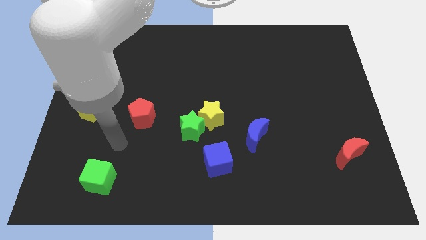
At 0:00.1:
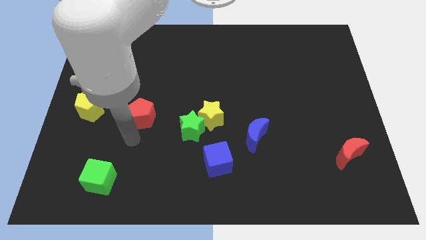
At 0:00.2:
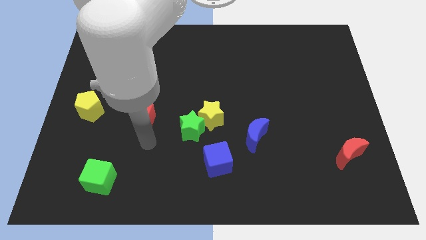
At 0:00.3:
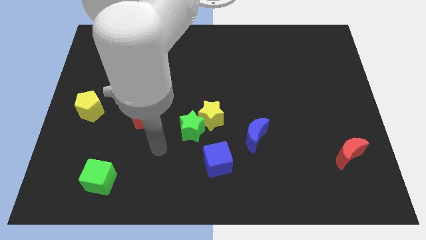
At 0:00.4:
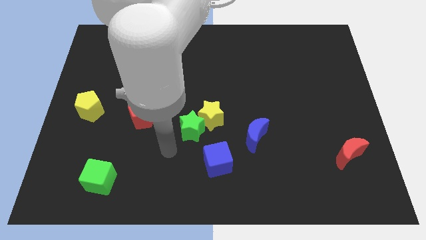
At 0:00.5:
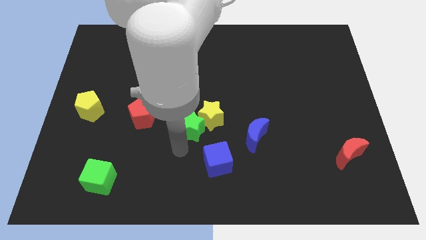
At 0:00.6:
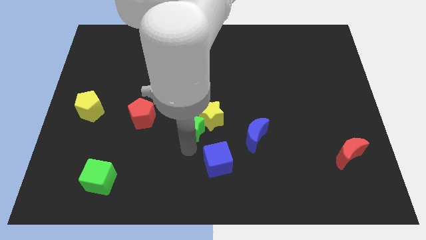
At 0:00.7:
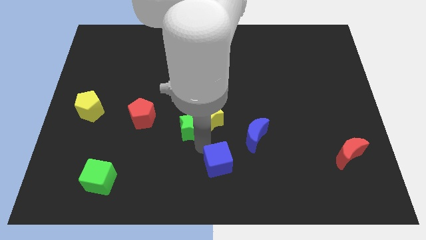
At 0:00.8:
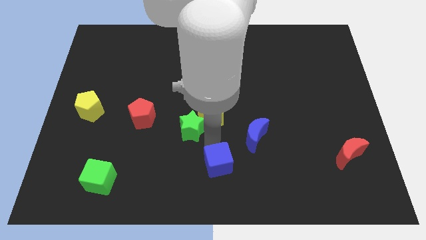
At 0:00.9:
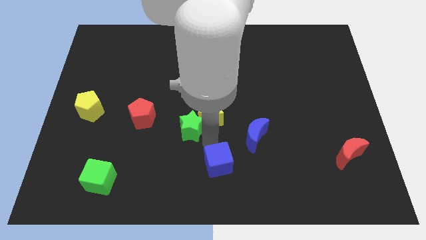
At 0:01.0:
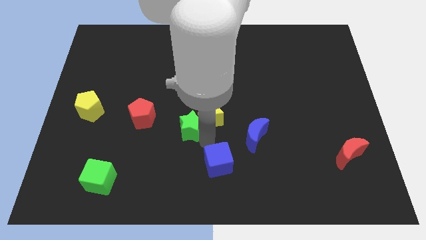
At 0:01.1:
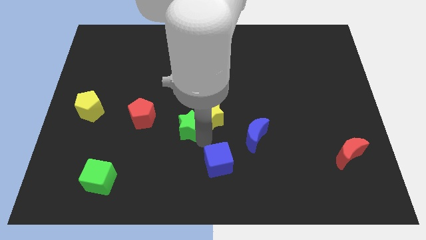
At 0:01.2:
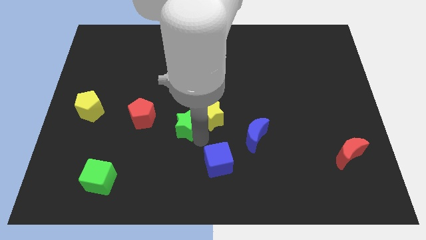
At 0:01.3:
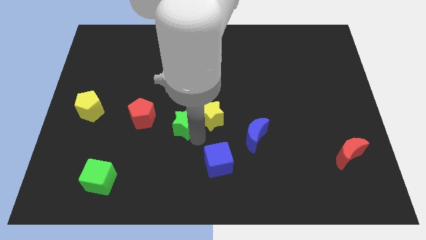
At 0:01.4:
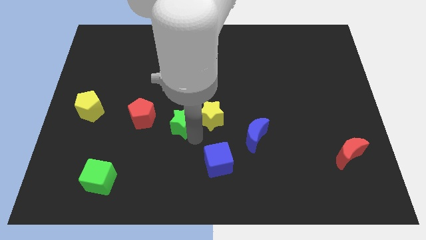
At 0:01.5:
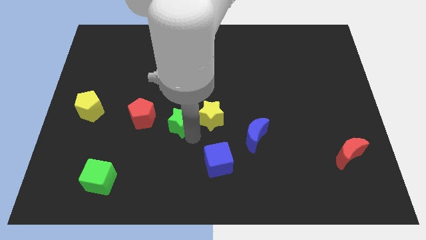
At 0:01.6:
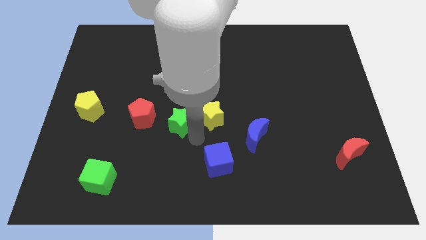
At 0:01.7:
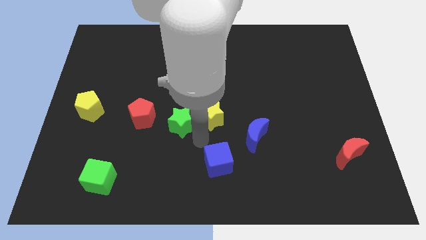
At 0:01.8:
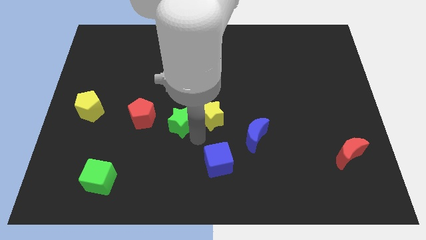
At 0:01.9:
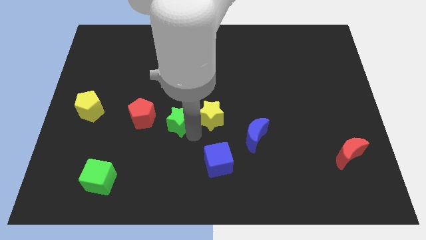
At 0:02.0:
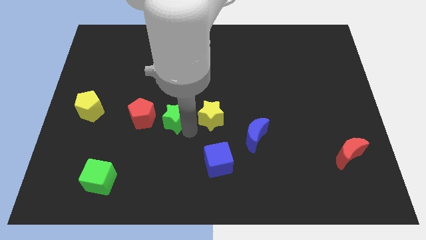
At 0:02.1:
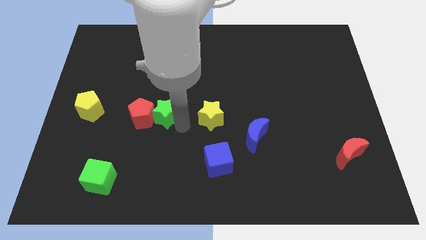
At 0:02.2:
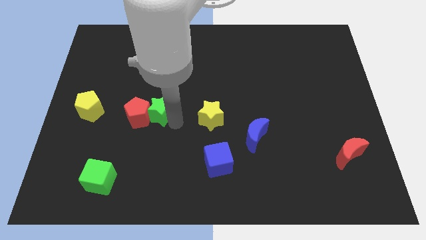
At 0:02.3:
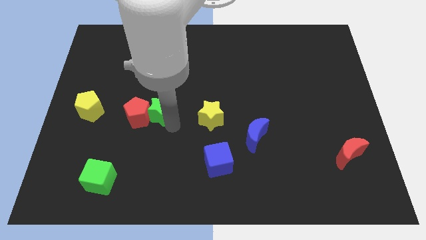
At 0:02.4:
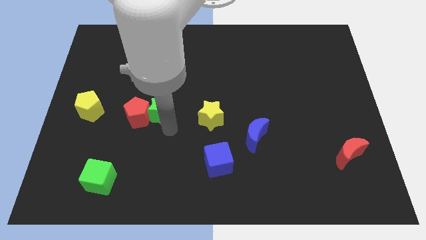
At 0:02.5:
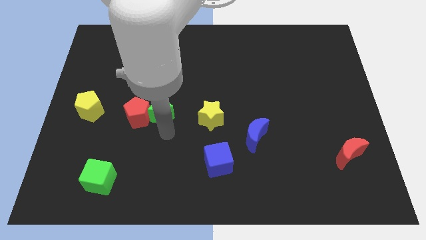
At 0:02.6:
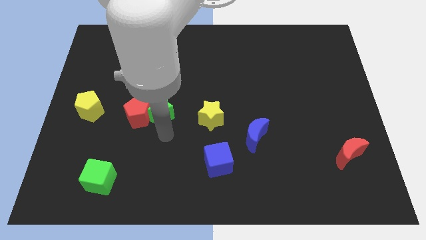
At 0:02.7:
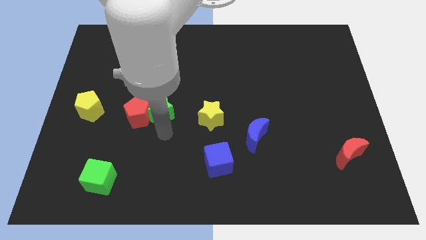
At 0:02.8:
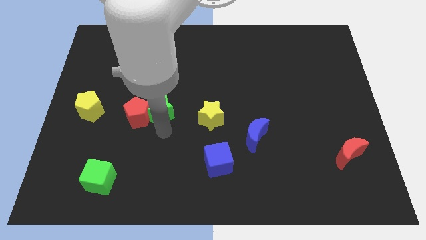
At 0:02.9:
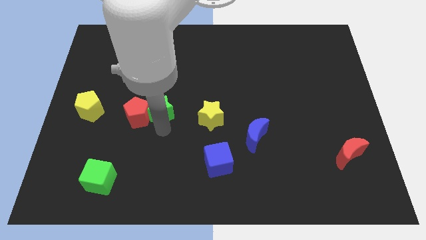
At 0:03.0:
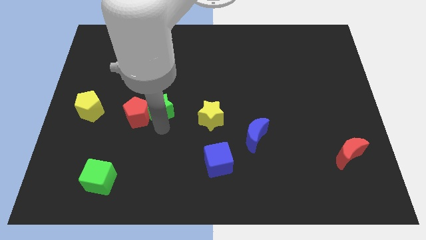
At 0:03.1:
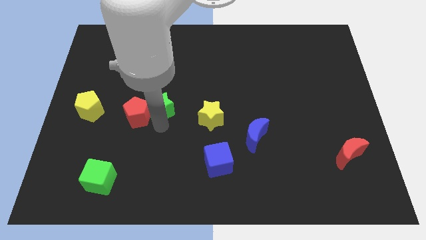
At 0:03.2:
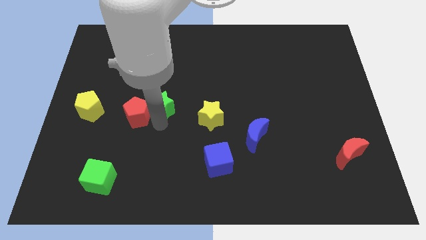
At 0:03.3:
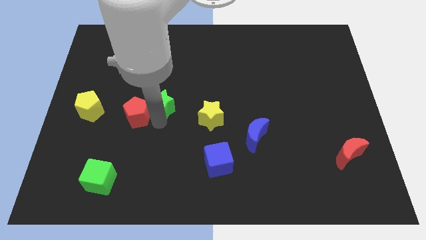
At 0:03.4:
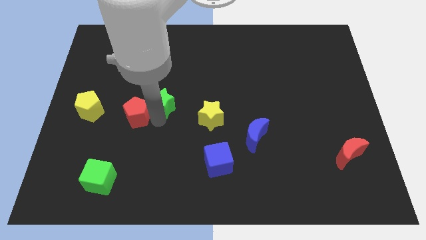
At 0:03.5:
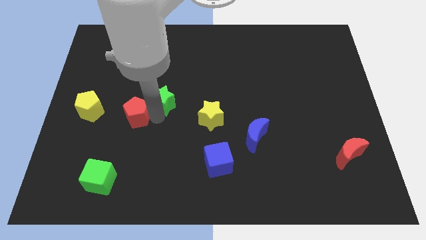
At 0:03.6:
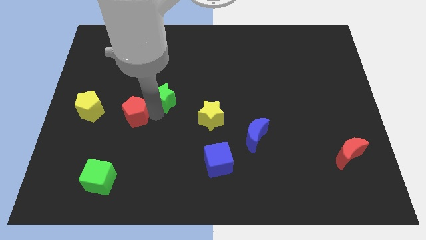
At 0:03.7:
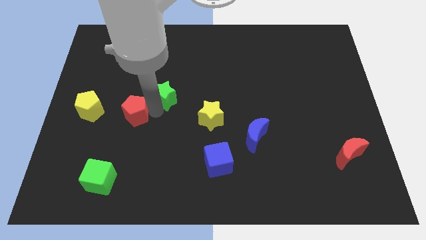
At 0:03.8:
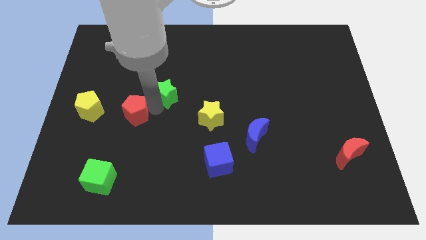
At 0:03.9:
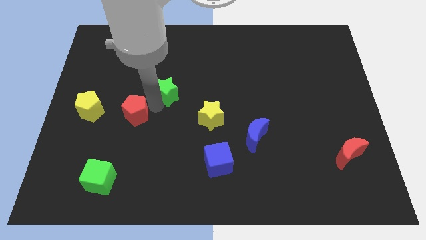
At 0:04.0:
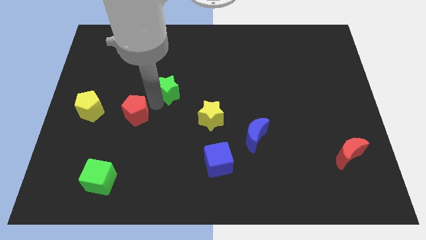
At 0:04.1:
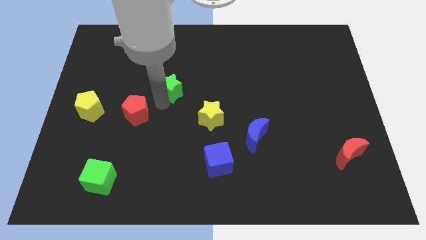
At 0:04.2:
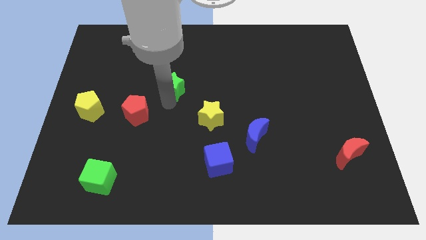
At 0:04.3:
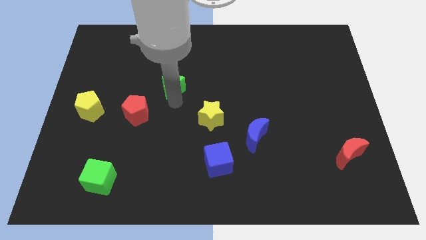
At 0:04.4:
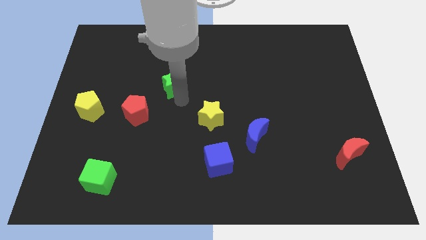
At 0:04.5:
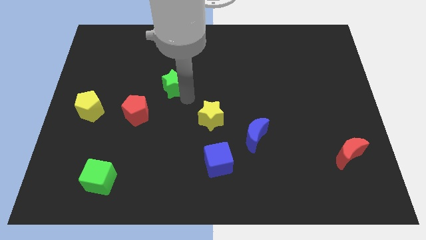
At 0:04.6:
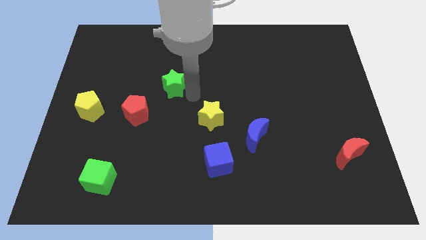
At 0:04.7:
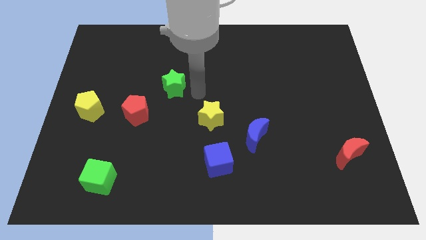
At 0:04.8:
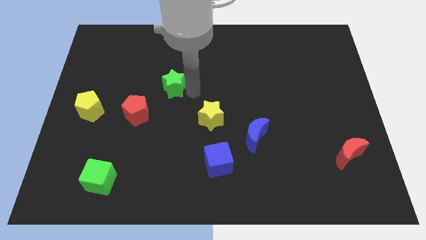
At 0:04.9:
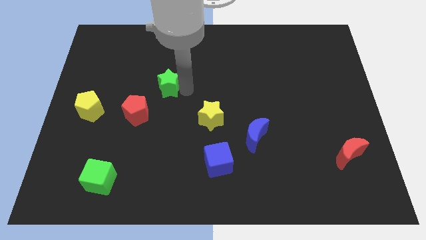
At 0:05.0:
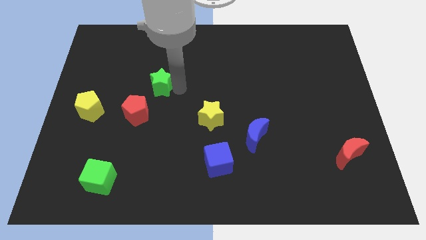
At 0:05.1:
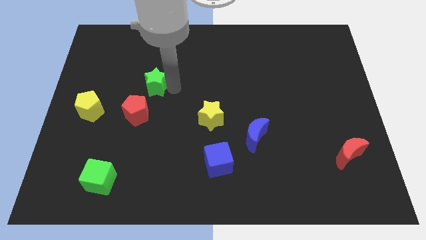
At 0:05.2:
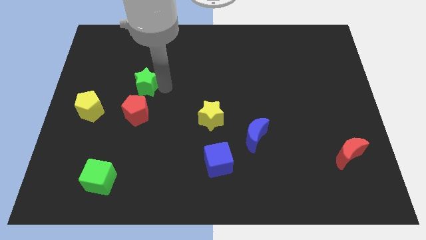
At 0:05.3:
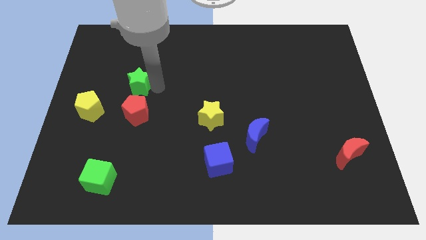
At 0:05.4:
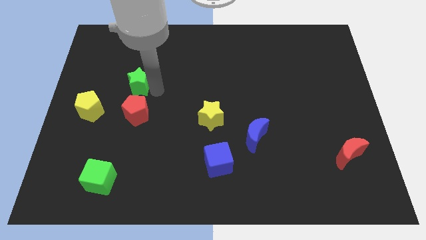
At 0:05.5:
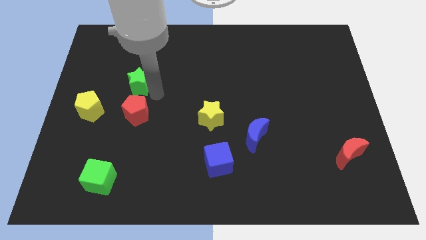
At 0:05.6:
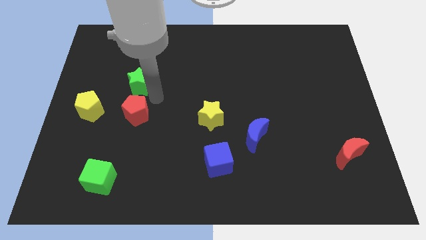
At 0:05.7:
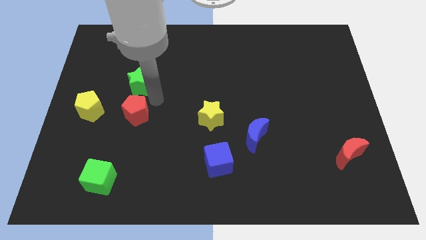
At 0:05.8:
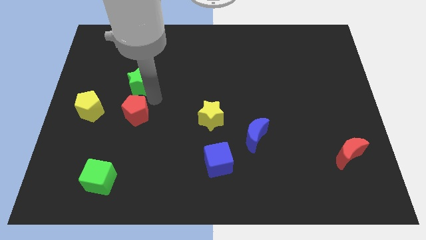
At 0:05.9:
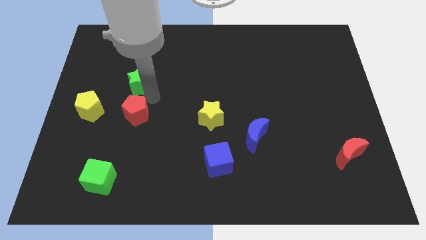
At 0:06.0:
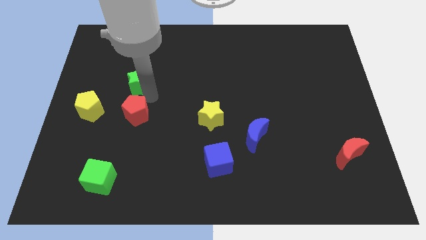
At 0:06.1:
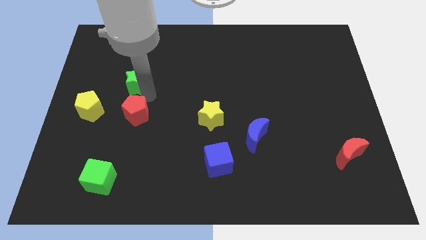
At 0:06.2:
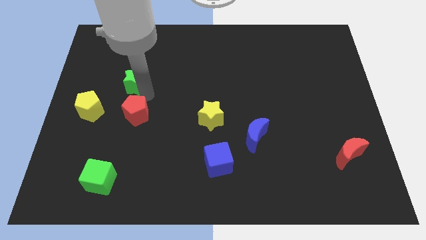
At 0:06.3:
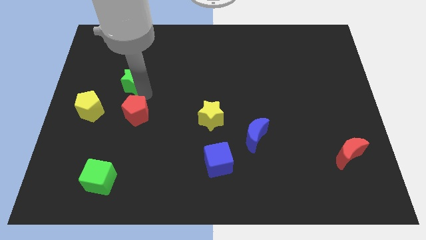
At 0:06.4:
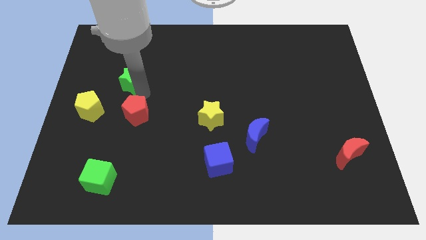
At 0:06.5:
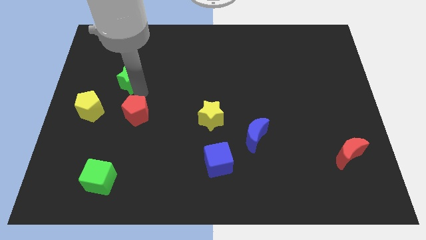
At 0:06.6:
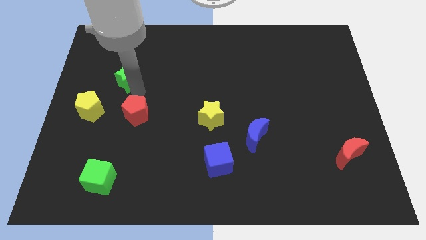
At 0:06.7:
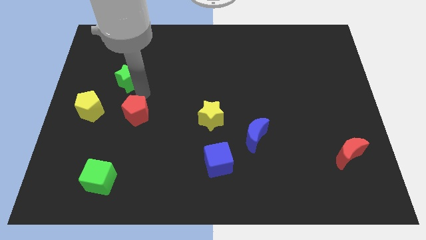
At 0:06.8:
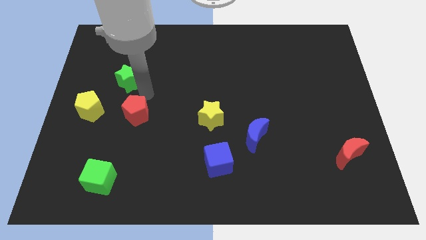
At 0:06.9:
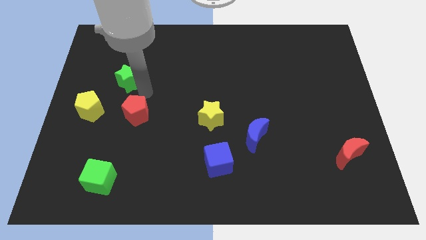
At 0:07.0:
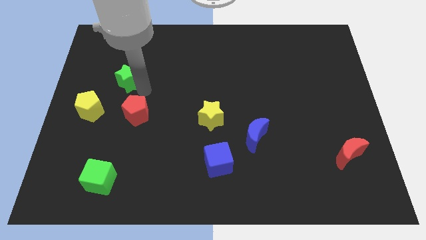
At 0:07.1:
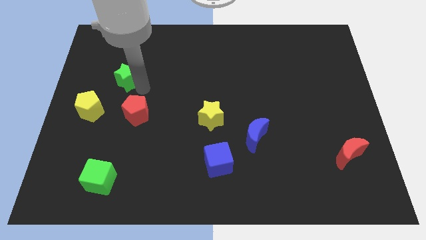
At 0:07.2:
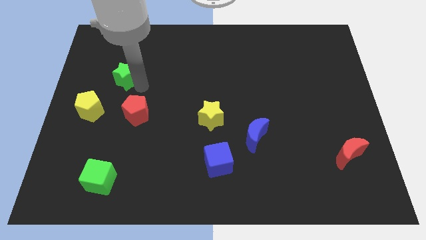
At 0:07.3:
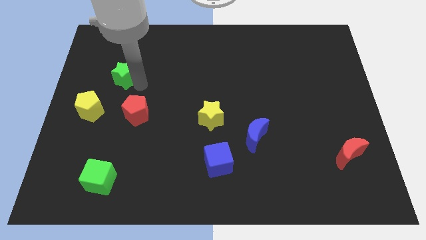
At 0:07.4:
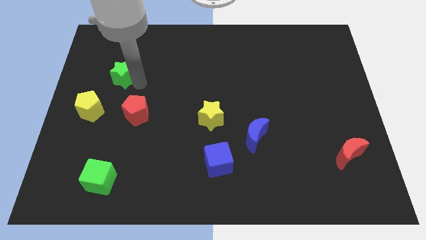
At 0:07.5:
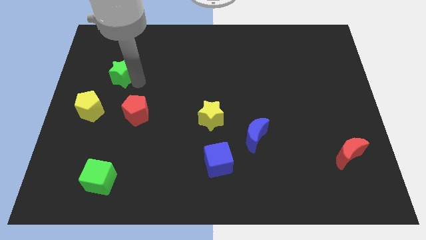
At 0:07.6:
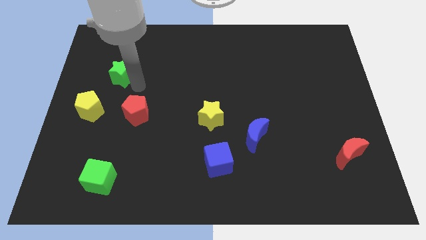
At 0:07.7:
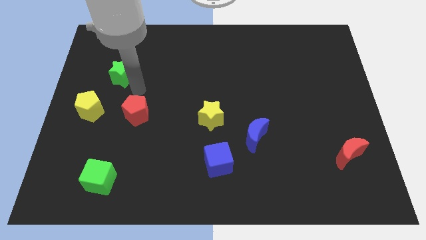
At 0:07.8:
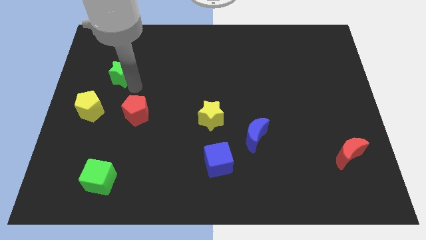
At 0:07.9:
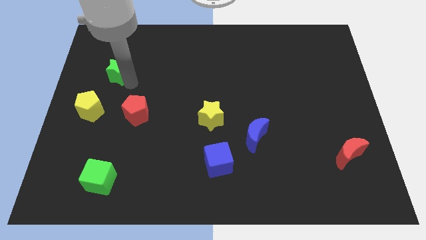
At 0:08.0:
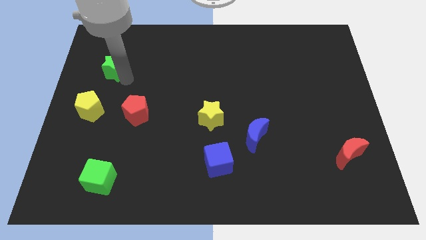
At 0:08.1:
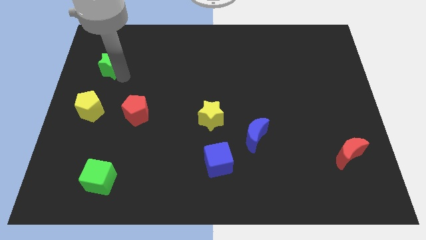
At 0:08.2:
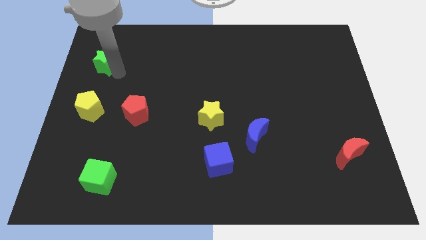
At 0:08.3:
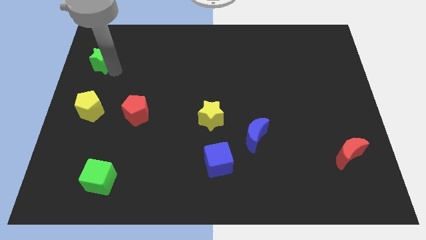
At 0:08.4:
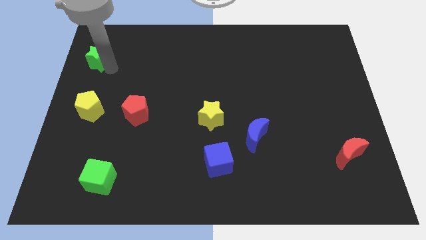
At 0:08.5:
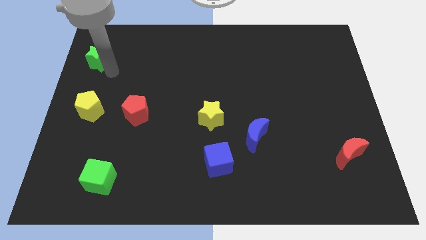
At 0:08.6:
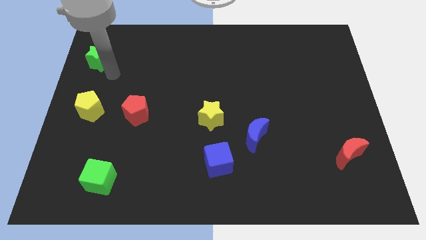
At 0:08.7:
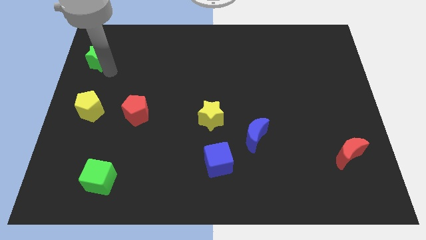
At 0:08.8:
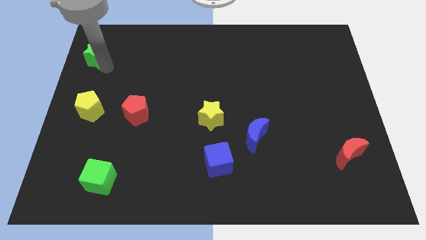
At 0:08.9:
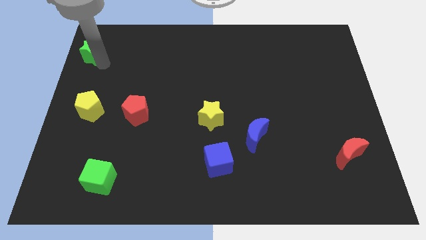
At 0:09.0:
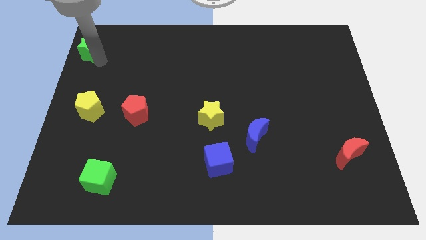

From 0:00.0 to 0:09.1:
slide the green star to the top left
